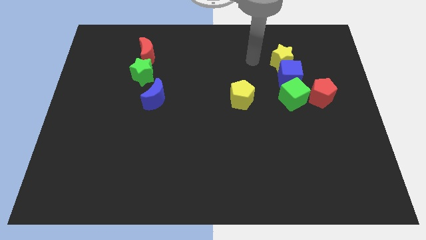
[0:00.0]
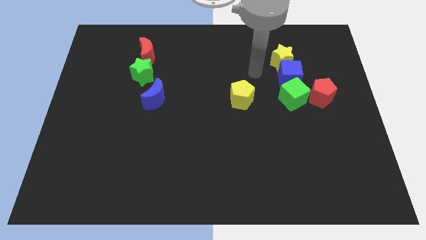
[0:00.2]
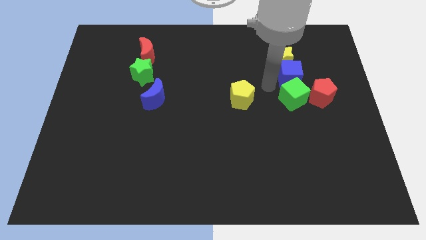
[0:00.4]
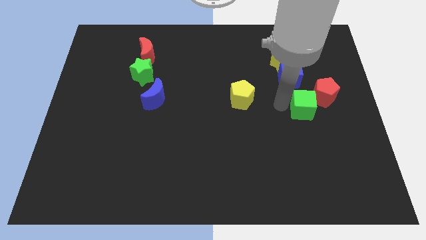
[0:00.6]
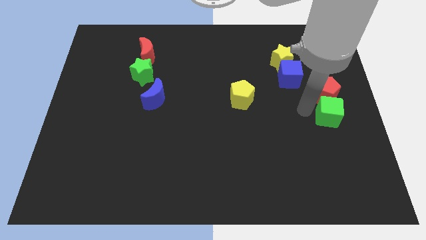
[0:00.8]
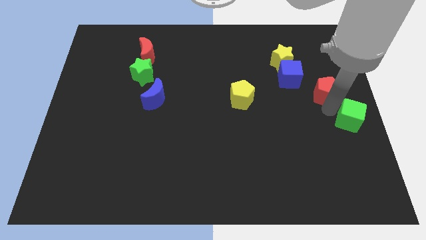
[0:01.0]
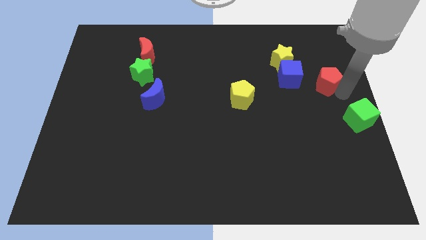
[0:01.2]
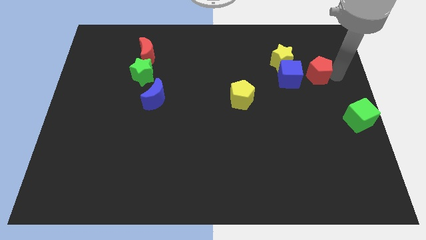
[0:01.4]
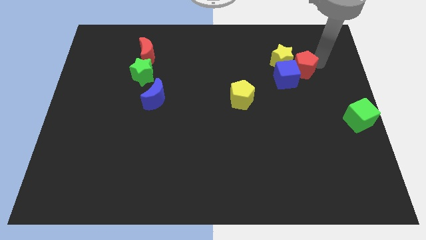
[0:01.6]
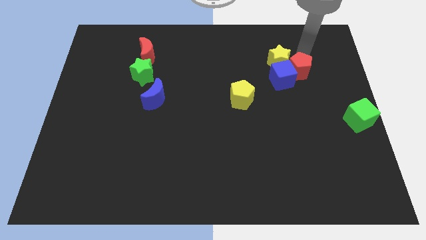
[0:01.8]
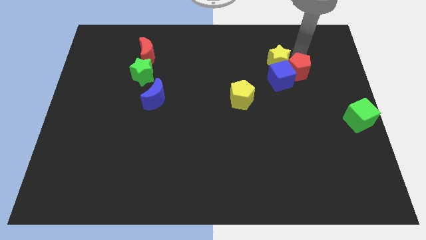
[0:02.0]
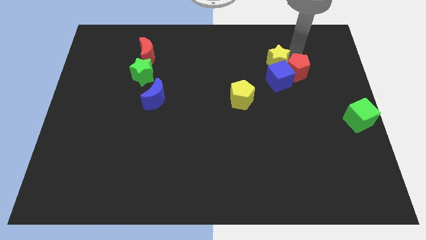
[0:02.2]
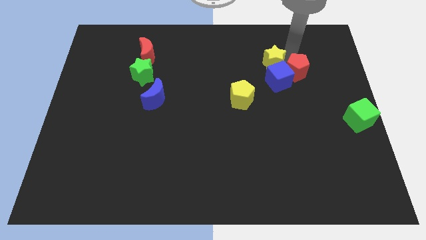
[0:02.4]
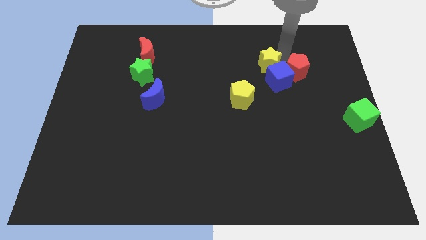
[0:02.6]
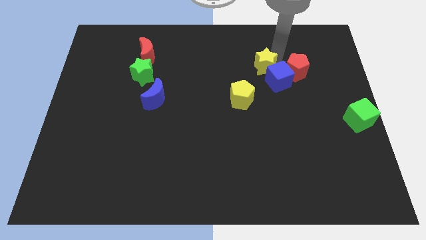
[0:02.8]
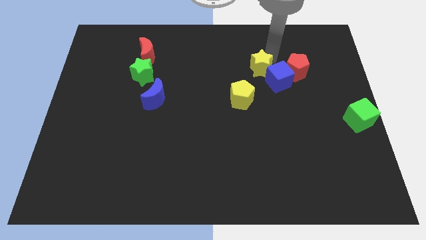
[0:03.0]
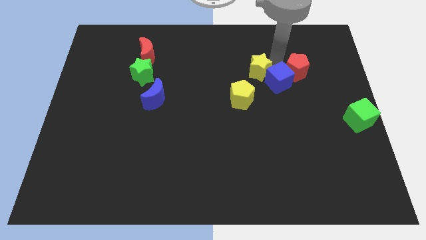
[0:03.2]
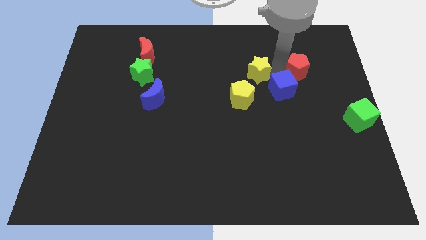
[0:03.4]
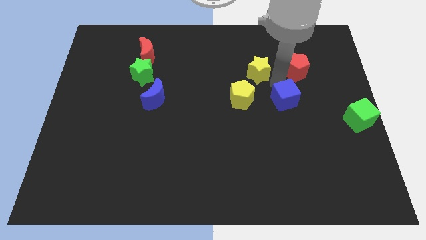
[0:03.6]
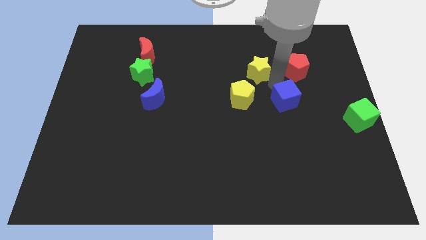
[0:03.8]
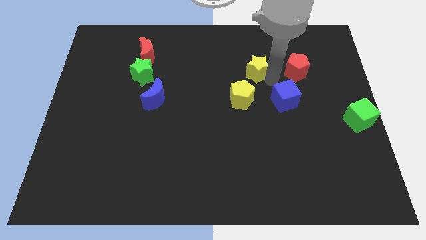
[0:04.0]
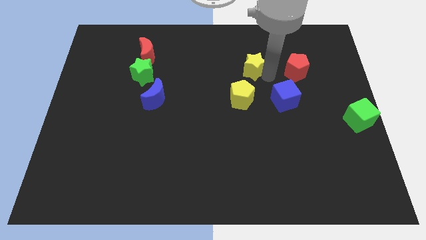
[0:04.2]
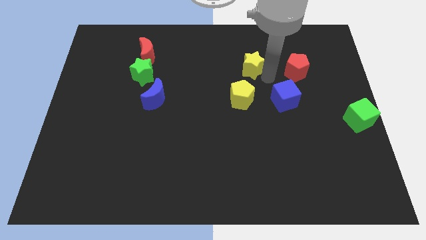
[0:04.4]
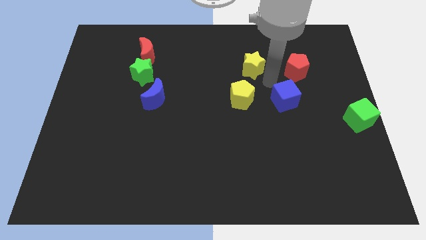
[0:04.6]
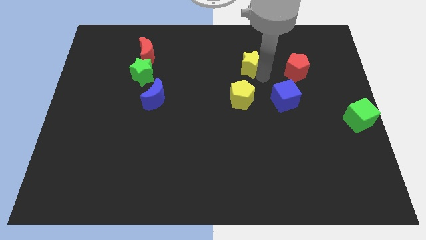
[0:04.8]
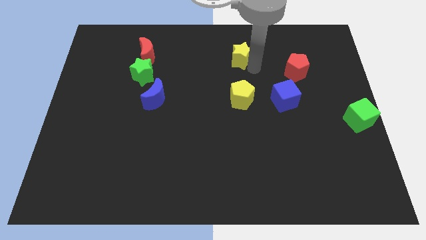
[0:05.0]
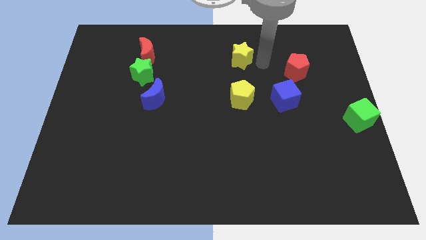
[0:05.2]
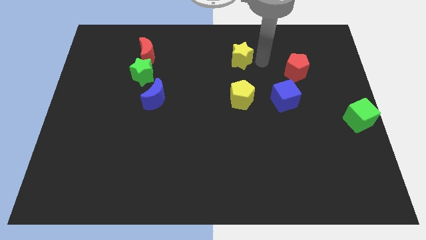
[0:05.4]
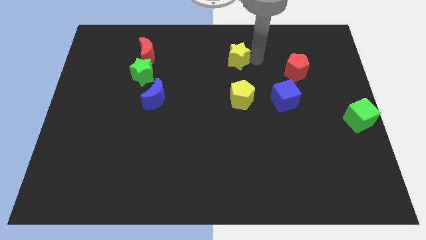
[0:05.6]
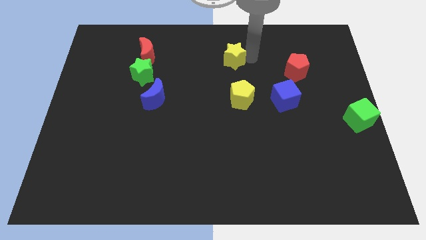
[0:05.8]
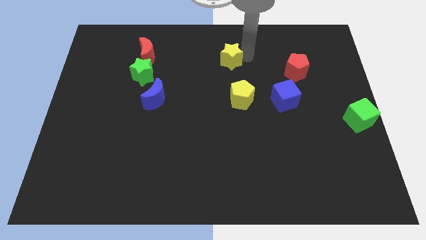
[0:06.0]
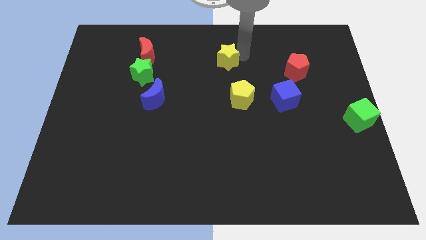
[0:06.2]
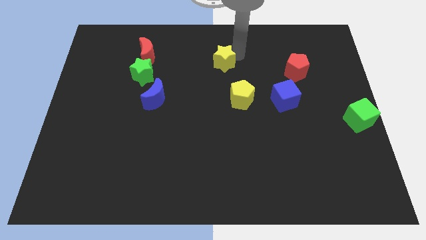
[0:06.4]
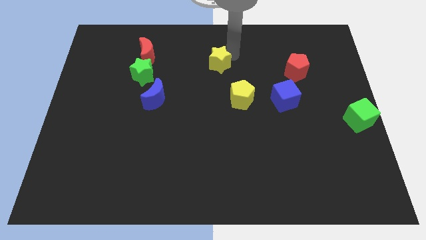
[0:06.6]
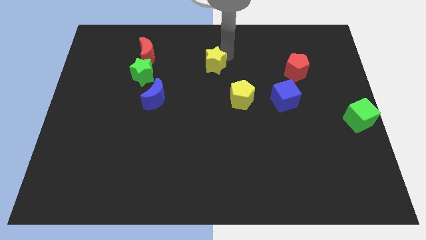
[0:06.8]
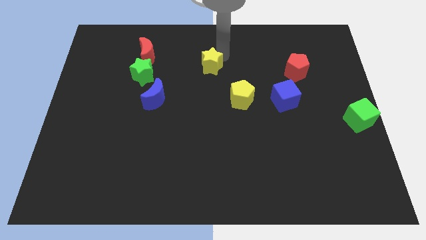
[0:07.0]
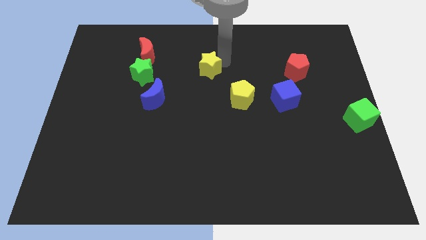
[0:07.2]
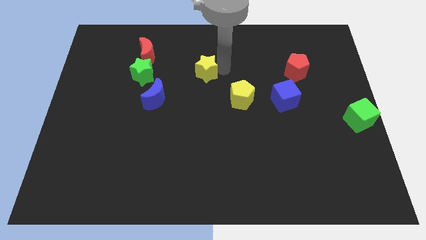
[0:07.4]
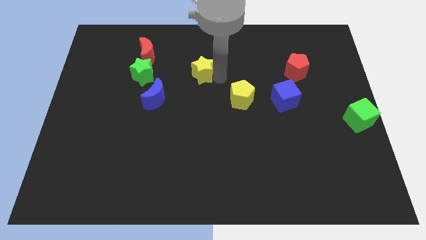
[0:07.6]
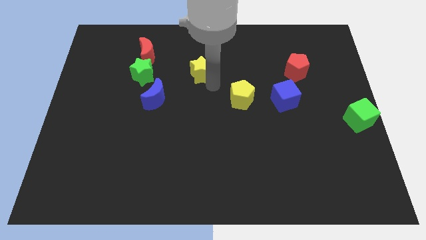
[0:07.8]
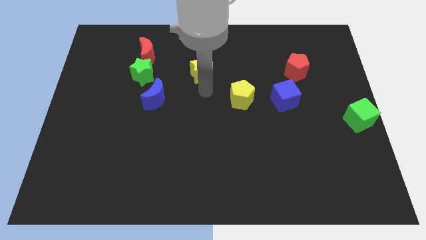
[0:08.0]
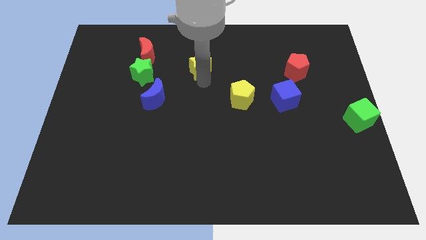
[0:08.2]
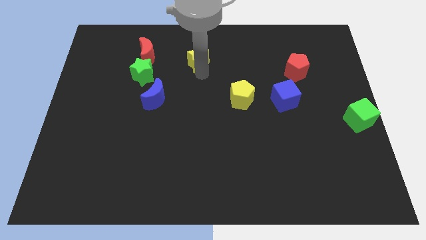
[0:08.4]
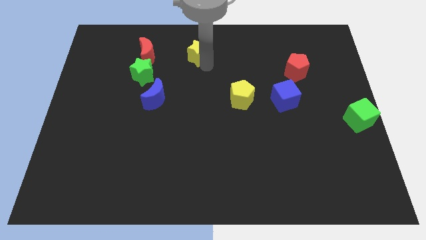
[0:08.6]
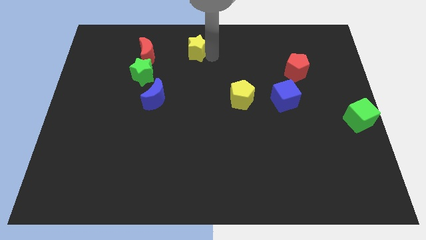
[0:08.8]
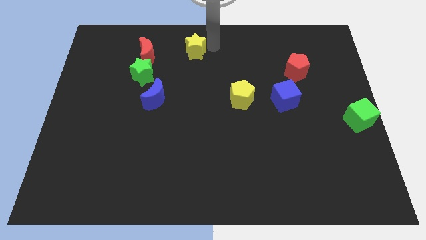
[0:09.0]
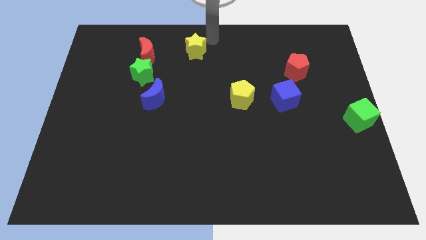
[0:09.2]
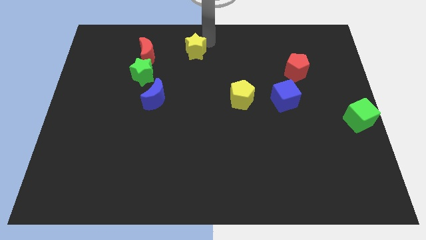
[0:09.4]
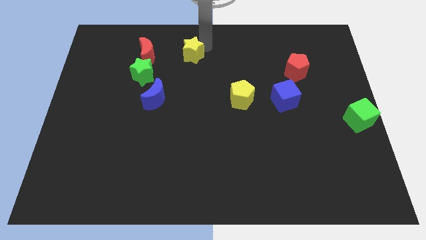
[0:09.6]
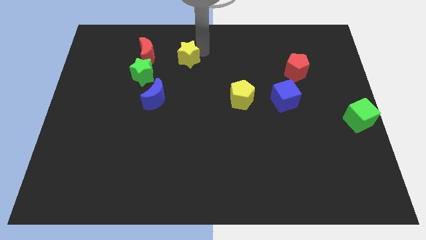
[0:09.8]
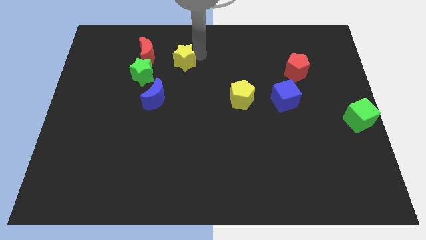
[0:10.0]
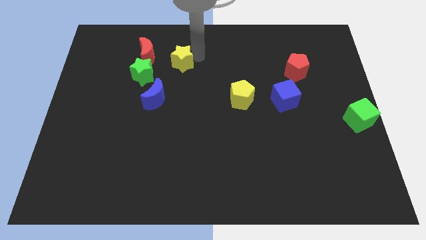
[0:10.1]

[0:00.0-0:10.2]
put the yellow star to the bottom right of the red moon

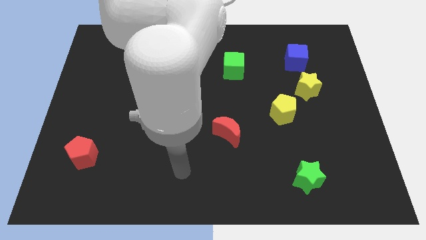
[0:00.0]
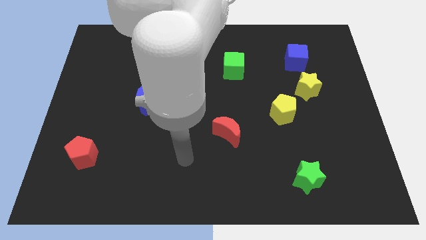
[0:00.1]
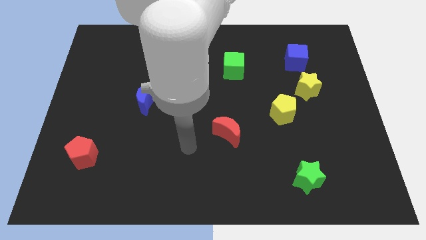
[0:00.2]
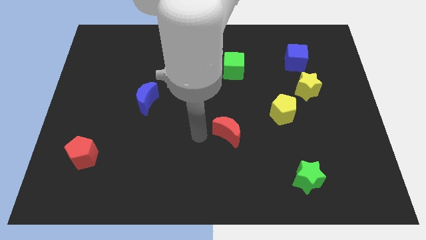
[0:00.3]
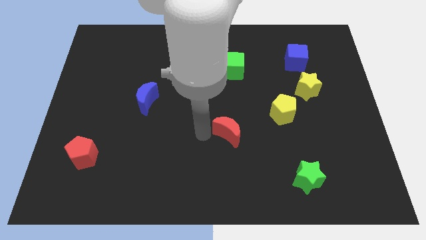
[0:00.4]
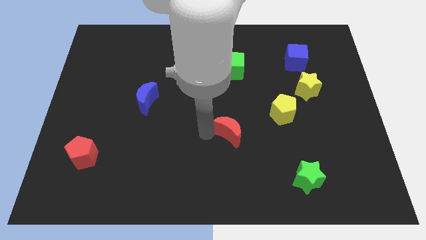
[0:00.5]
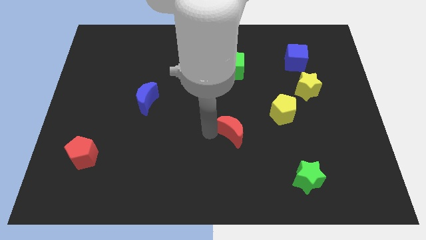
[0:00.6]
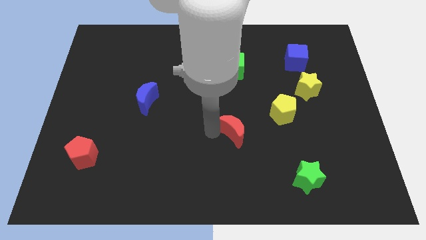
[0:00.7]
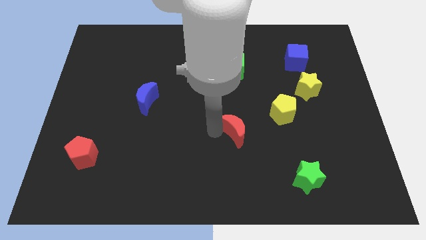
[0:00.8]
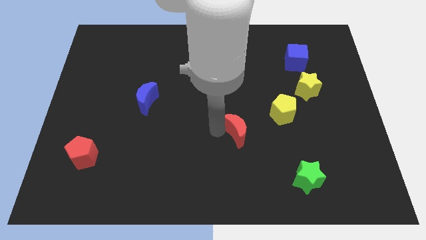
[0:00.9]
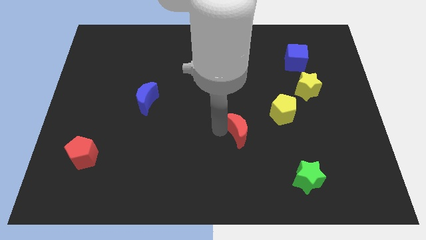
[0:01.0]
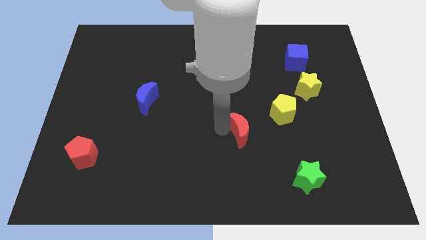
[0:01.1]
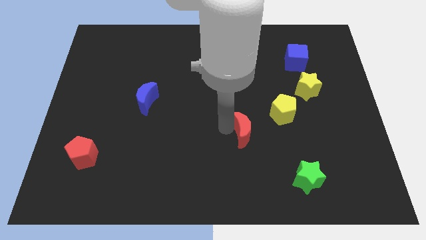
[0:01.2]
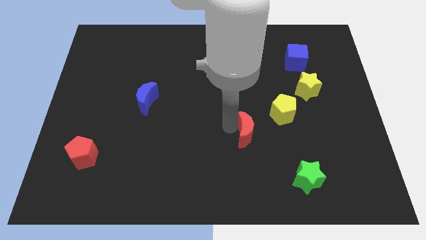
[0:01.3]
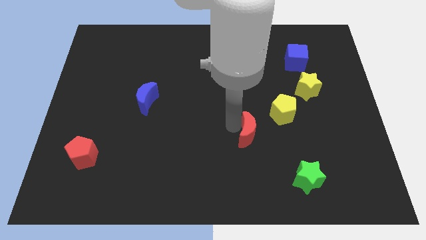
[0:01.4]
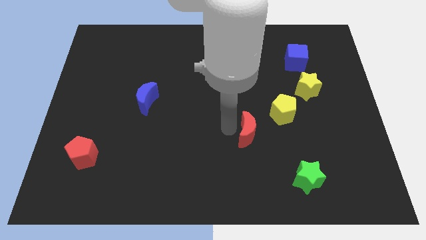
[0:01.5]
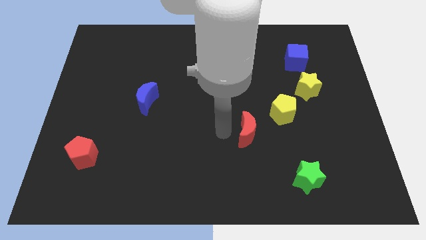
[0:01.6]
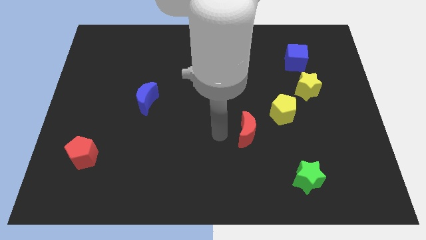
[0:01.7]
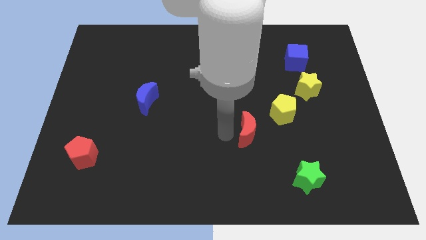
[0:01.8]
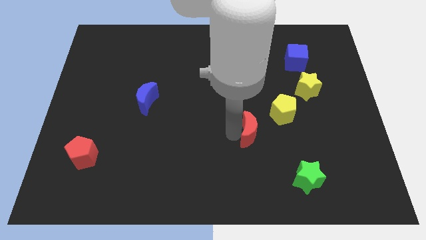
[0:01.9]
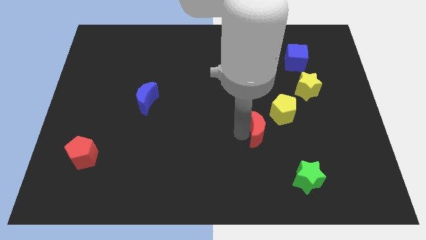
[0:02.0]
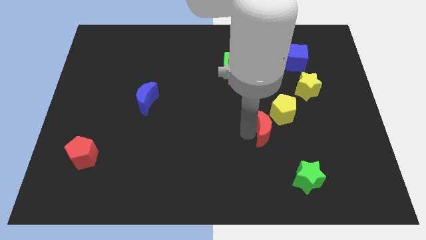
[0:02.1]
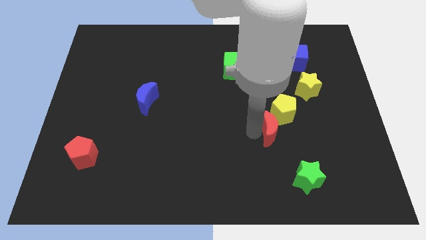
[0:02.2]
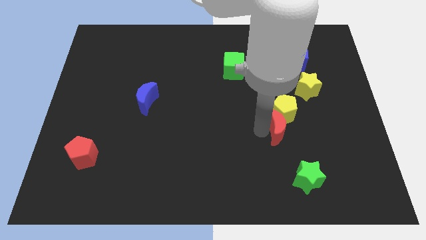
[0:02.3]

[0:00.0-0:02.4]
push the red moon to the top side of the green star
